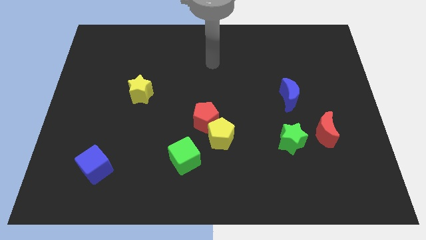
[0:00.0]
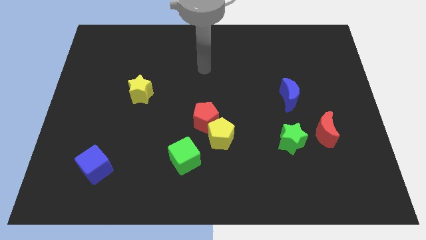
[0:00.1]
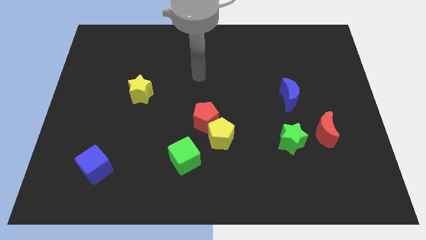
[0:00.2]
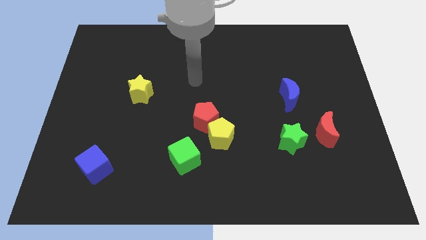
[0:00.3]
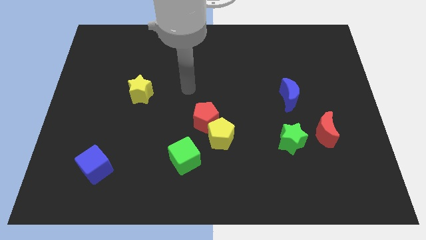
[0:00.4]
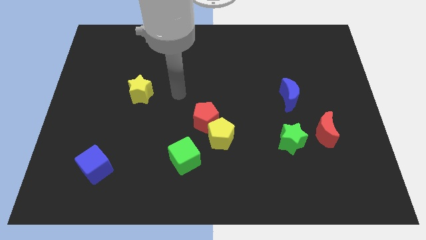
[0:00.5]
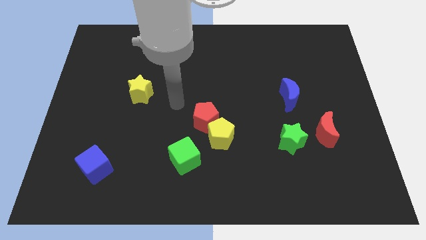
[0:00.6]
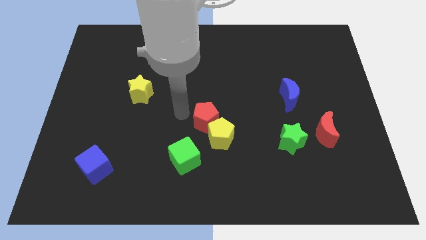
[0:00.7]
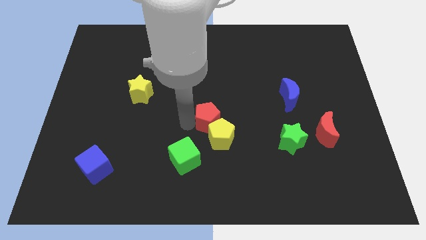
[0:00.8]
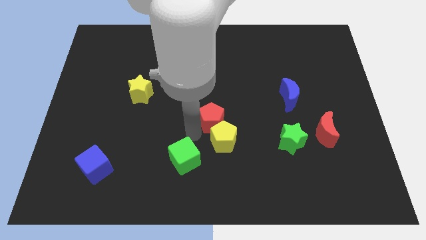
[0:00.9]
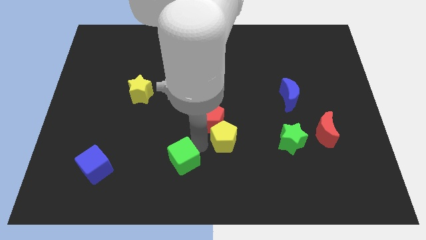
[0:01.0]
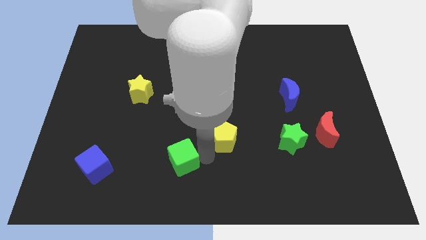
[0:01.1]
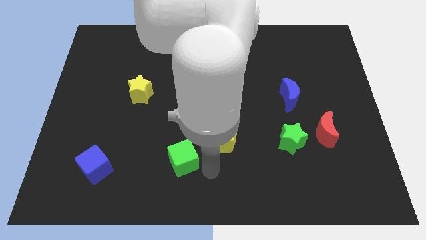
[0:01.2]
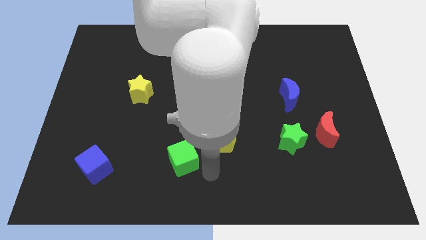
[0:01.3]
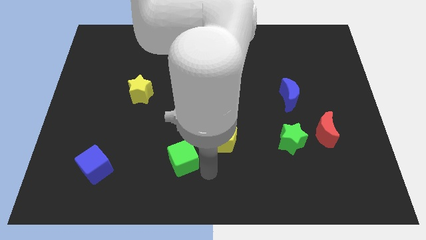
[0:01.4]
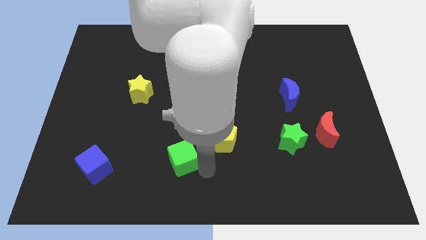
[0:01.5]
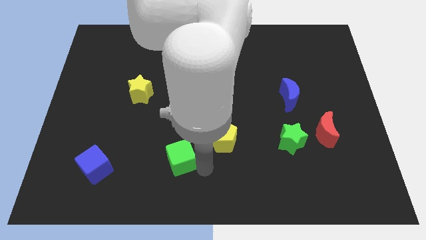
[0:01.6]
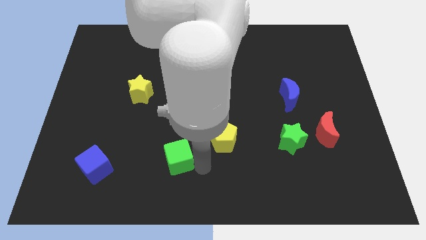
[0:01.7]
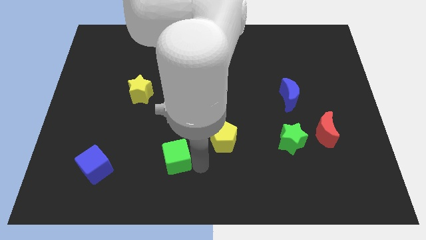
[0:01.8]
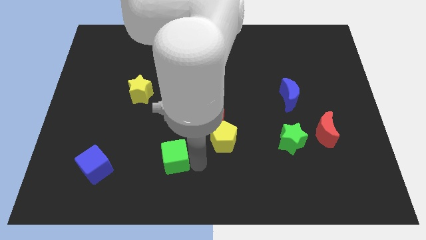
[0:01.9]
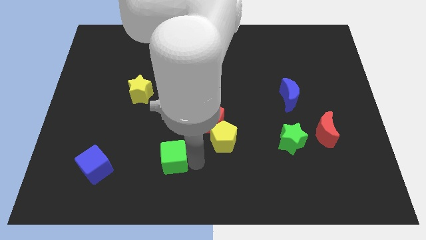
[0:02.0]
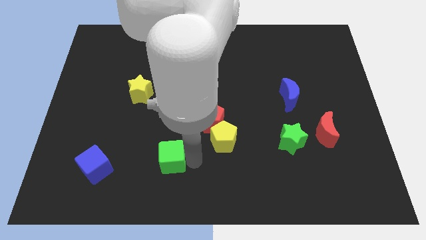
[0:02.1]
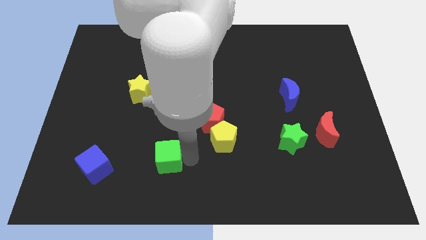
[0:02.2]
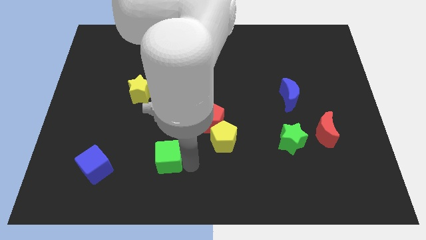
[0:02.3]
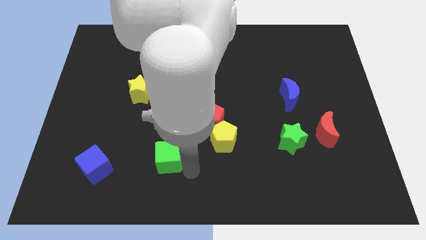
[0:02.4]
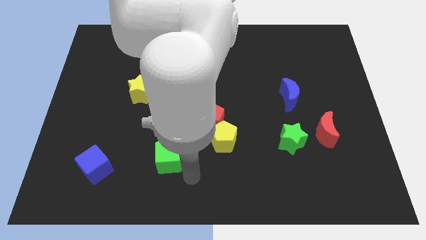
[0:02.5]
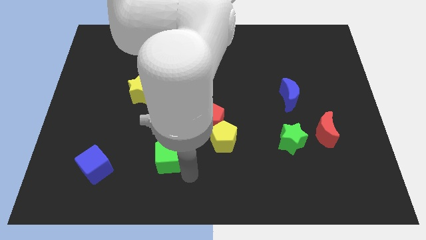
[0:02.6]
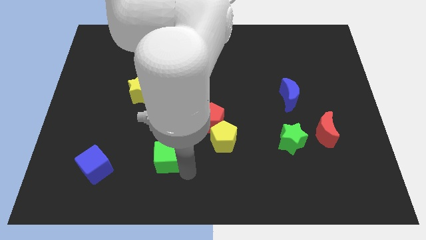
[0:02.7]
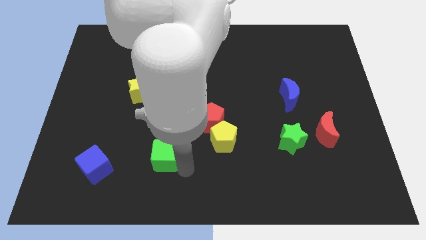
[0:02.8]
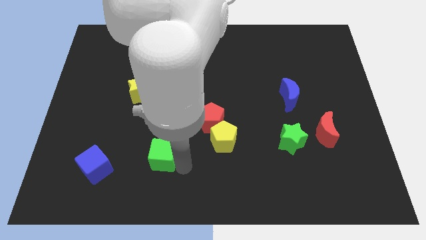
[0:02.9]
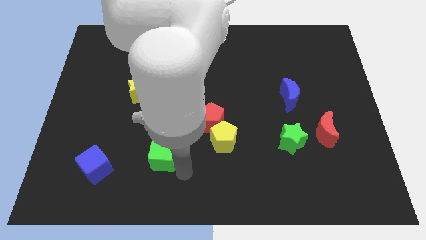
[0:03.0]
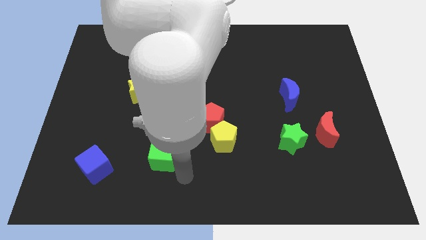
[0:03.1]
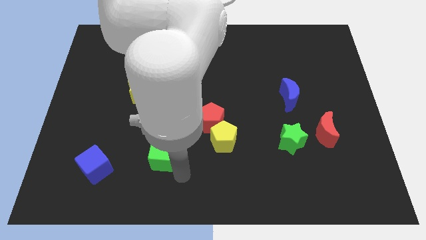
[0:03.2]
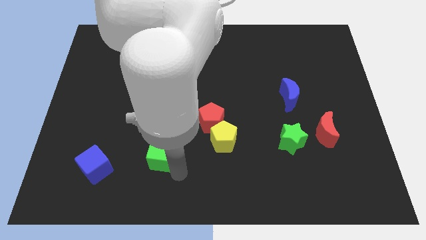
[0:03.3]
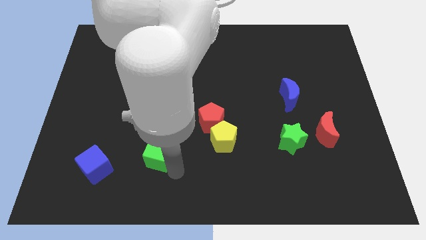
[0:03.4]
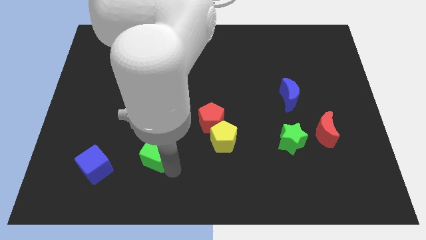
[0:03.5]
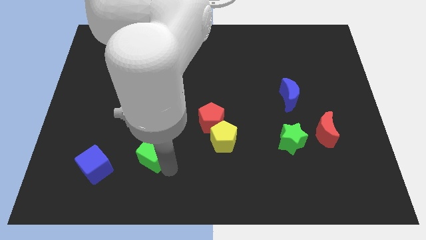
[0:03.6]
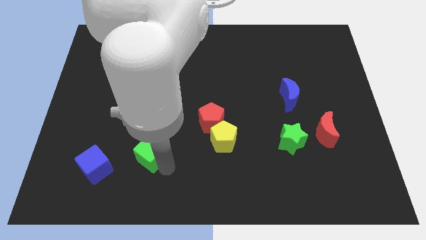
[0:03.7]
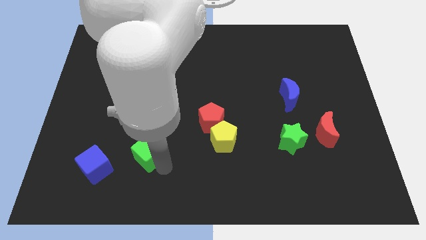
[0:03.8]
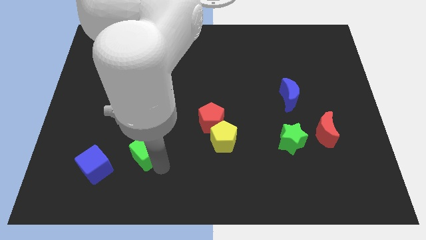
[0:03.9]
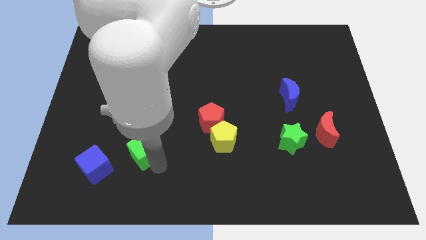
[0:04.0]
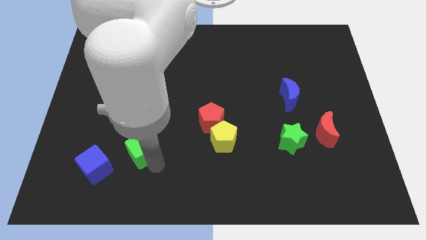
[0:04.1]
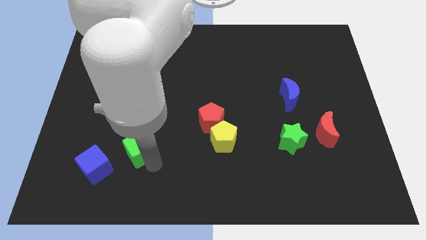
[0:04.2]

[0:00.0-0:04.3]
slightly push the green cube up and left diagonally

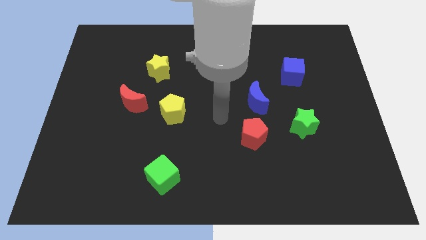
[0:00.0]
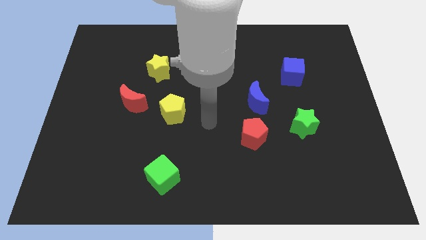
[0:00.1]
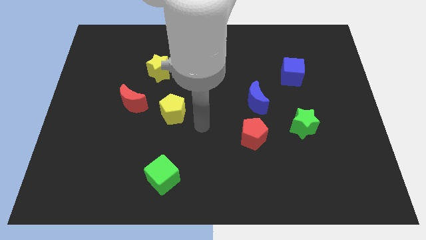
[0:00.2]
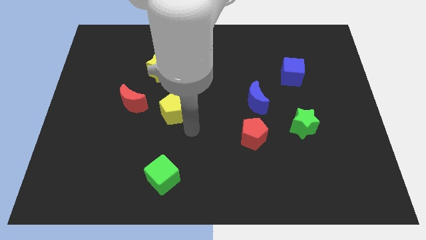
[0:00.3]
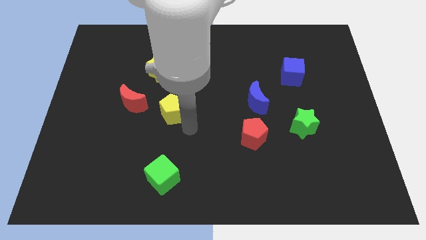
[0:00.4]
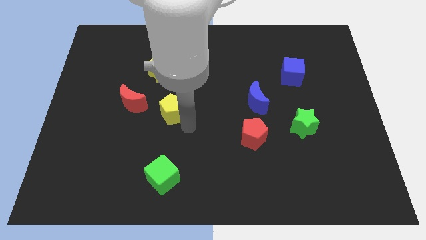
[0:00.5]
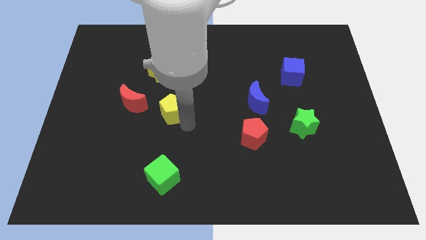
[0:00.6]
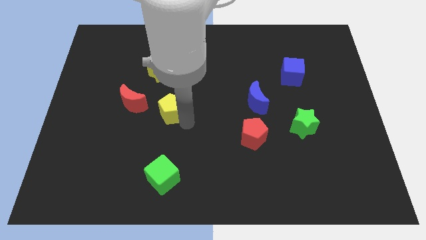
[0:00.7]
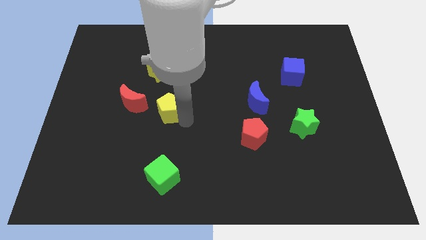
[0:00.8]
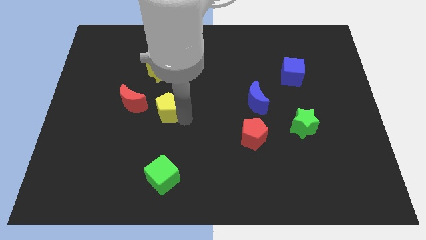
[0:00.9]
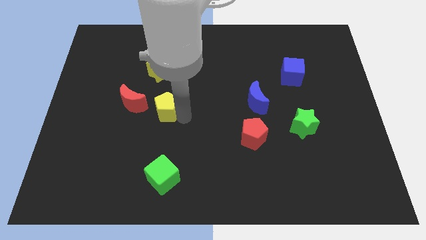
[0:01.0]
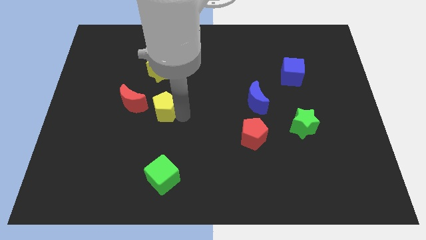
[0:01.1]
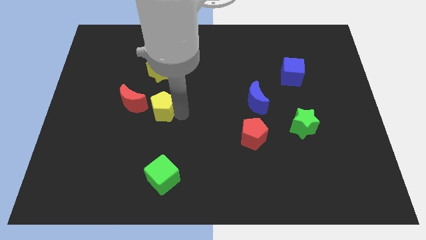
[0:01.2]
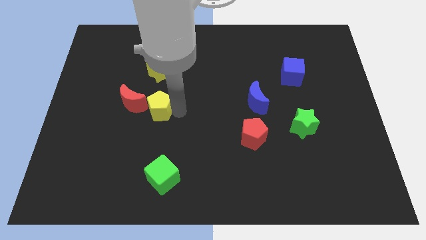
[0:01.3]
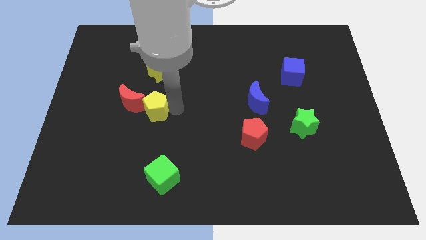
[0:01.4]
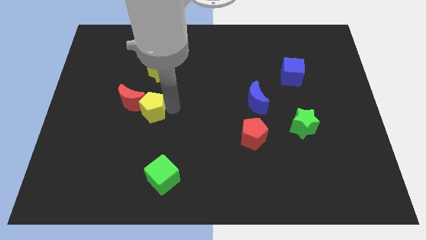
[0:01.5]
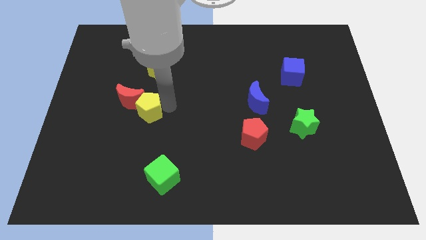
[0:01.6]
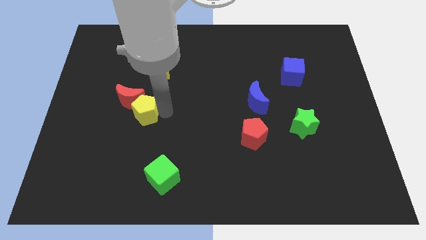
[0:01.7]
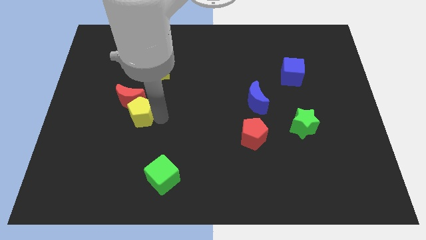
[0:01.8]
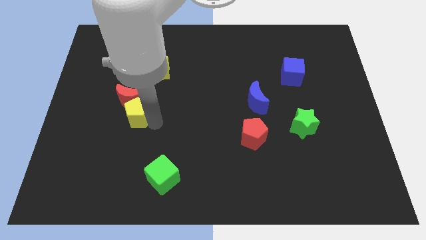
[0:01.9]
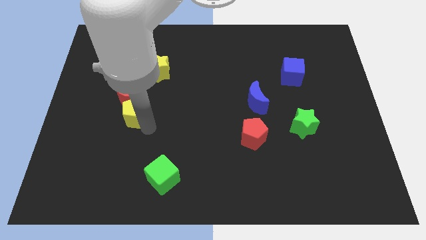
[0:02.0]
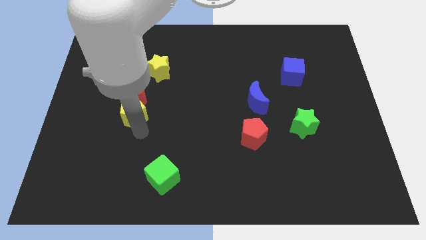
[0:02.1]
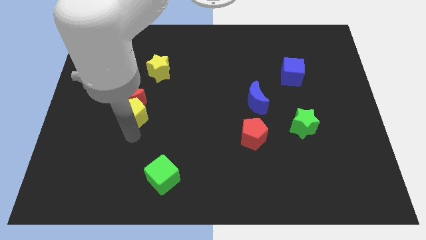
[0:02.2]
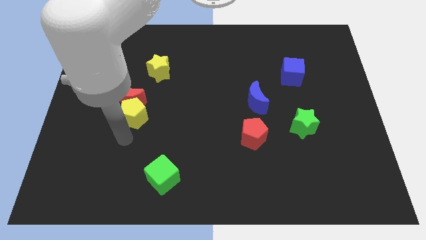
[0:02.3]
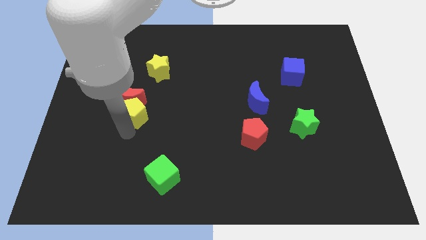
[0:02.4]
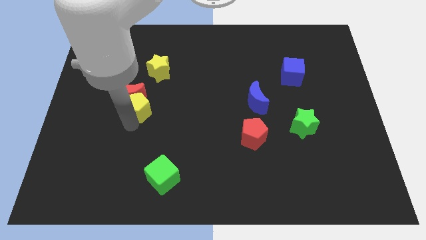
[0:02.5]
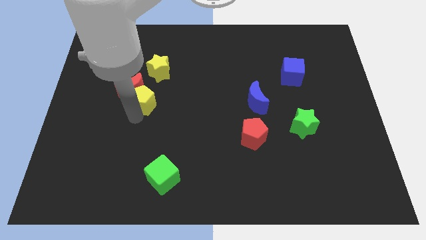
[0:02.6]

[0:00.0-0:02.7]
move the yellow pentagon upwards and then left a little

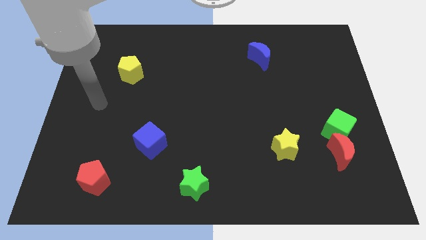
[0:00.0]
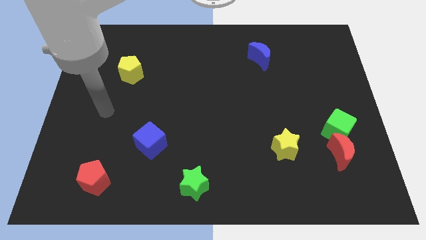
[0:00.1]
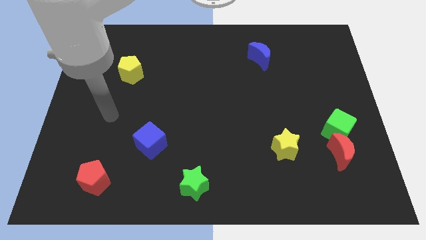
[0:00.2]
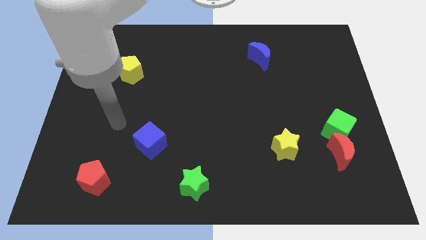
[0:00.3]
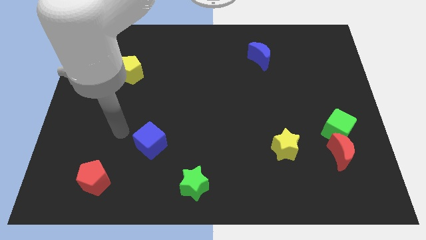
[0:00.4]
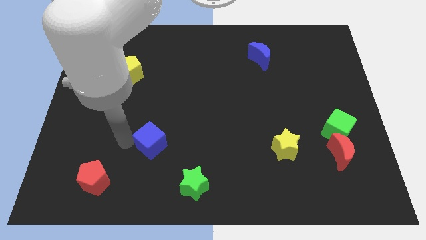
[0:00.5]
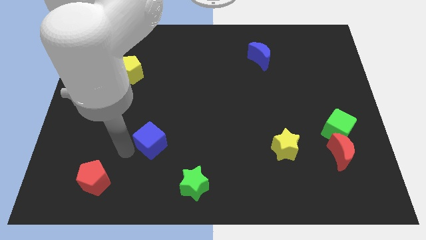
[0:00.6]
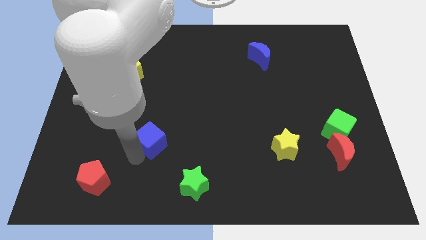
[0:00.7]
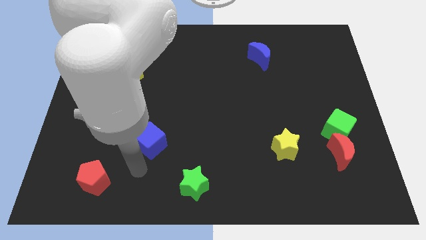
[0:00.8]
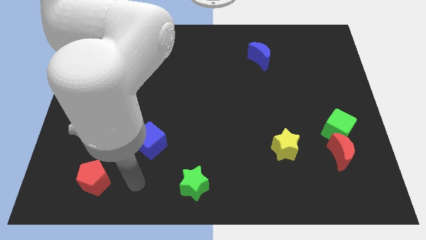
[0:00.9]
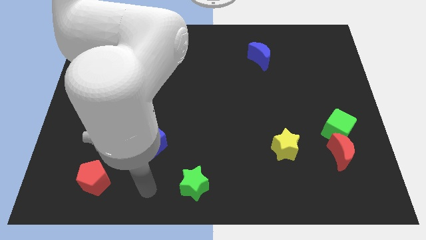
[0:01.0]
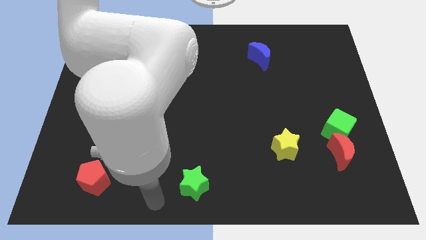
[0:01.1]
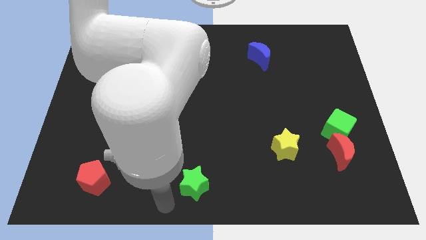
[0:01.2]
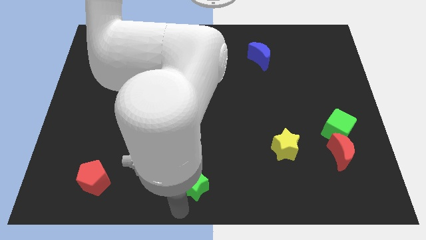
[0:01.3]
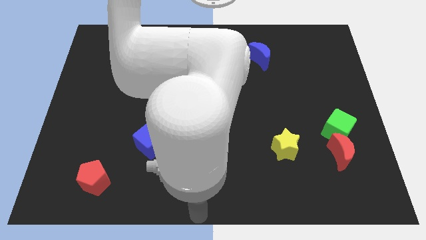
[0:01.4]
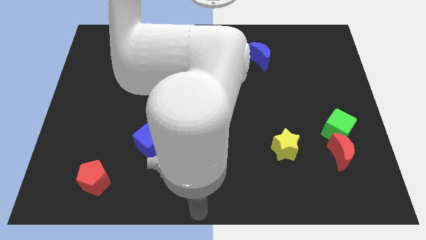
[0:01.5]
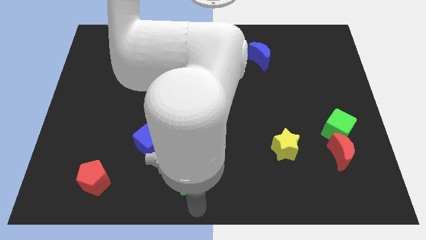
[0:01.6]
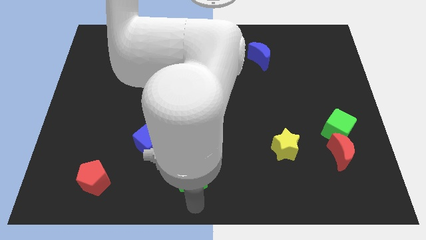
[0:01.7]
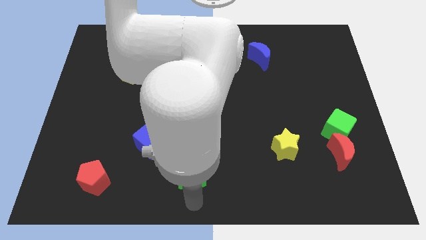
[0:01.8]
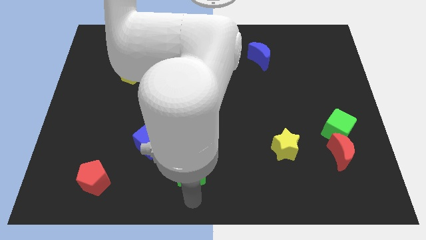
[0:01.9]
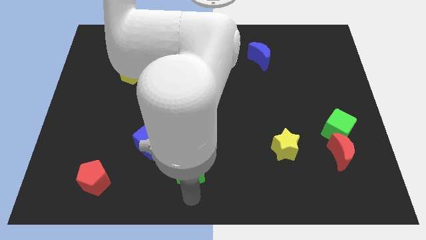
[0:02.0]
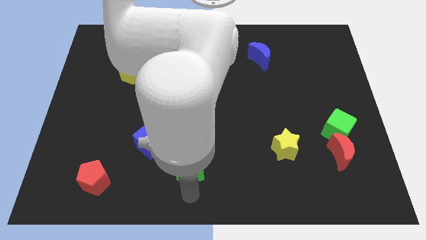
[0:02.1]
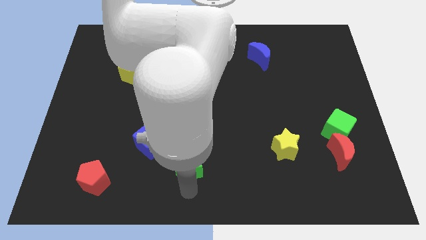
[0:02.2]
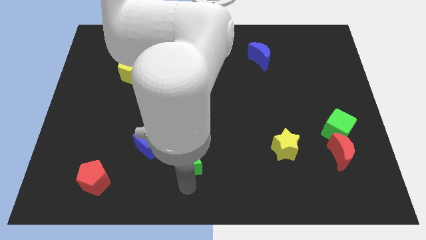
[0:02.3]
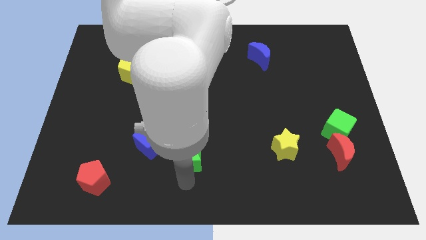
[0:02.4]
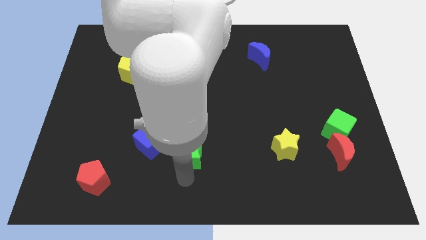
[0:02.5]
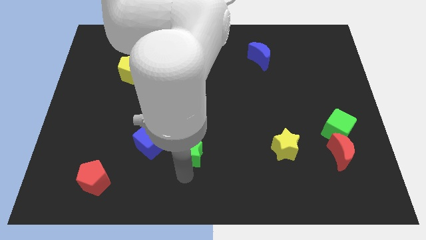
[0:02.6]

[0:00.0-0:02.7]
push the green star upwards a bit
